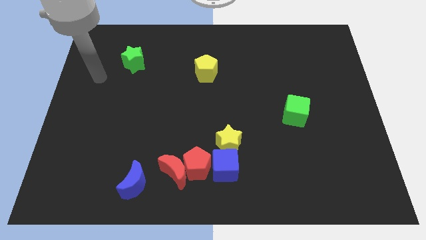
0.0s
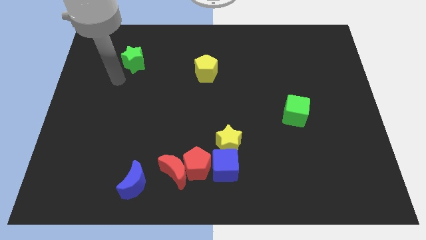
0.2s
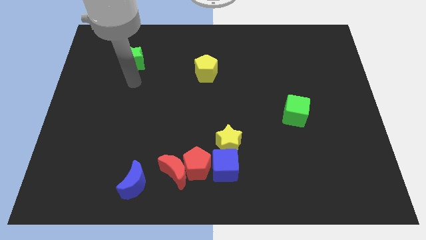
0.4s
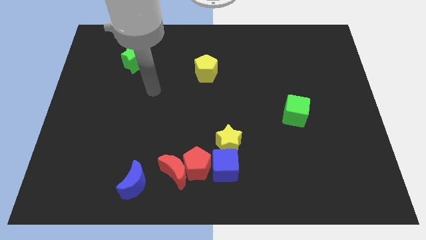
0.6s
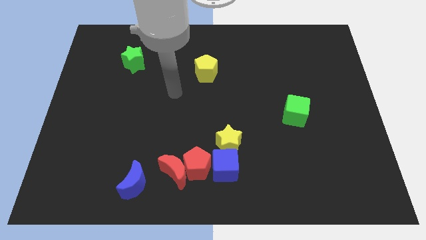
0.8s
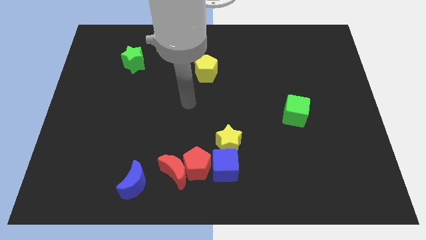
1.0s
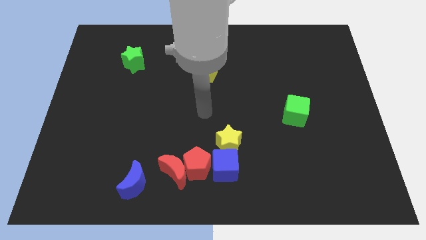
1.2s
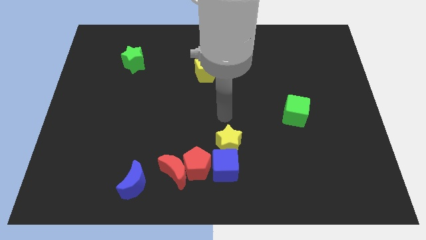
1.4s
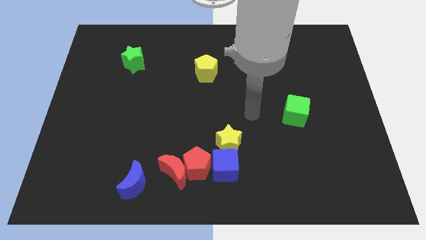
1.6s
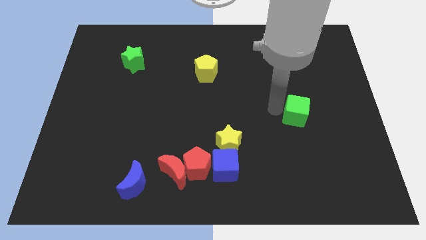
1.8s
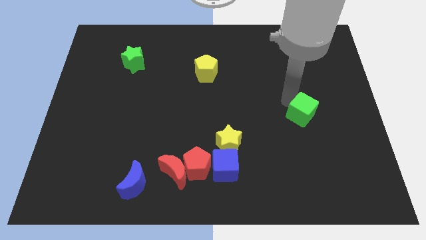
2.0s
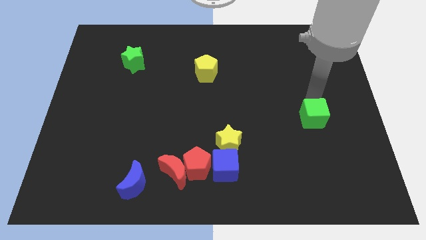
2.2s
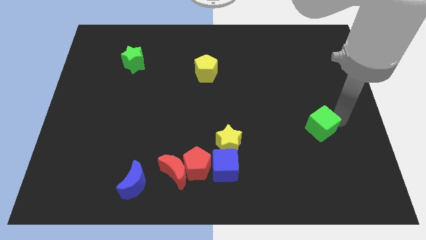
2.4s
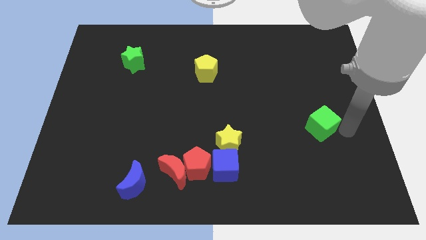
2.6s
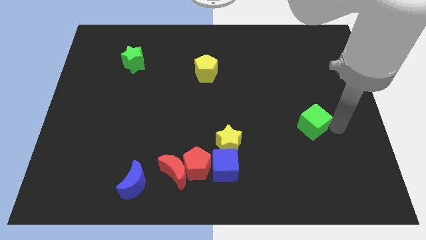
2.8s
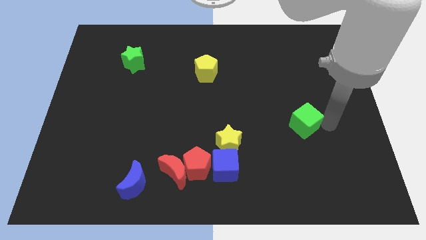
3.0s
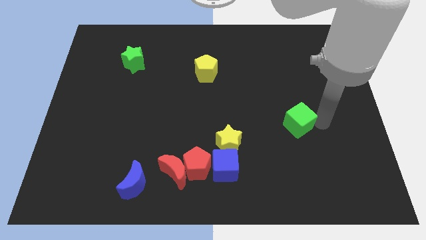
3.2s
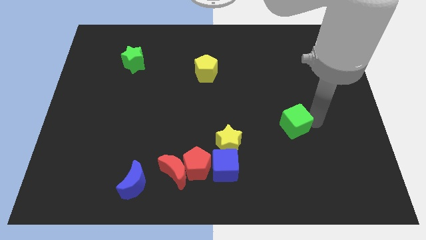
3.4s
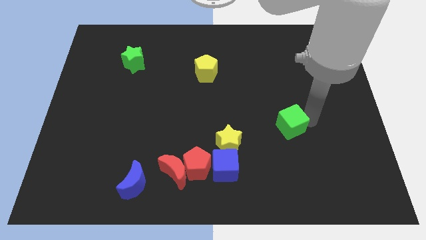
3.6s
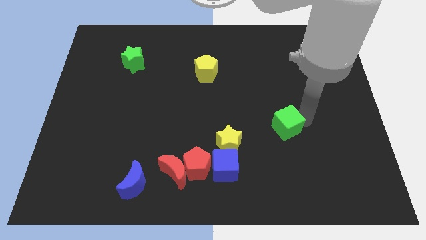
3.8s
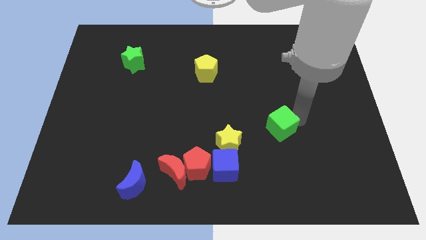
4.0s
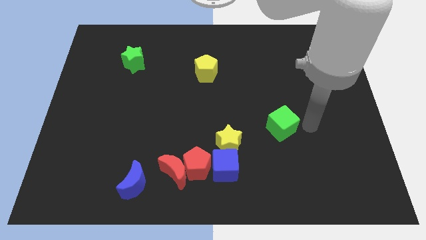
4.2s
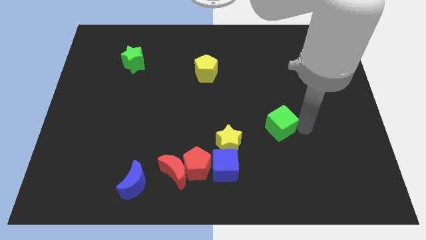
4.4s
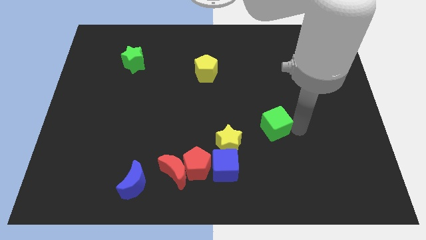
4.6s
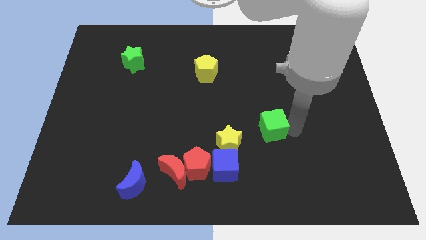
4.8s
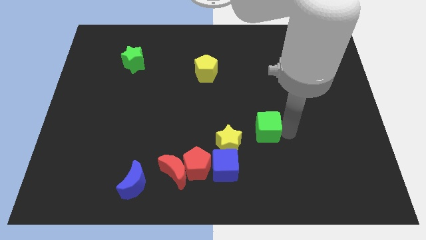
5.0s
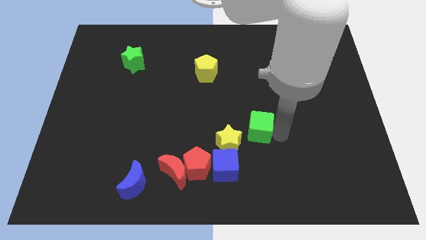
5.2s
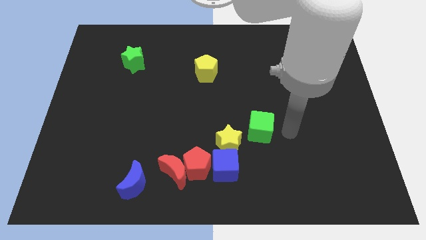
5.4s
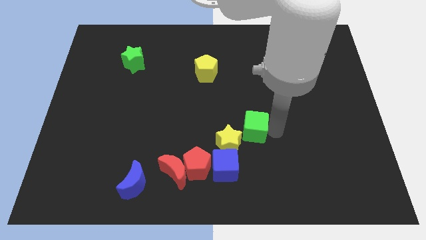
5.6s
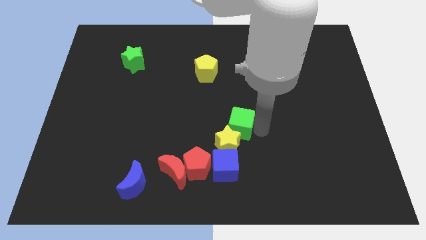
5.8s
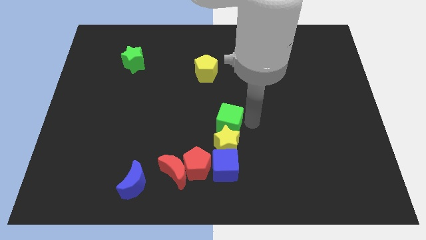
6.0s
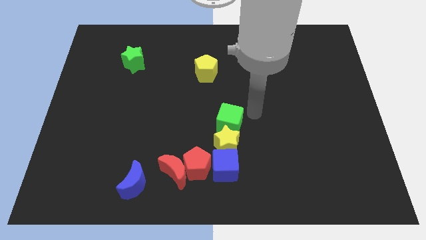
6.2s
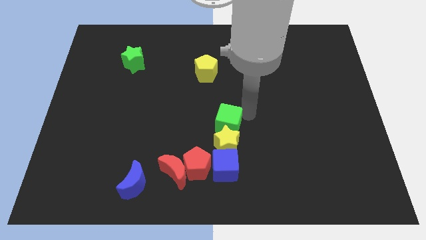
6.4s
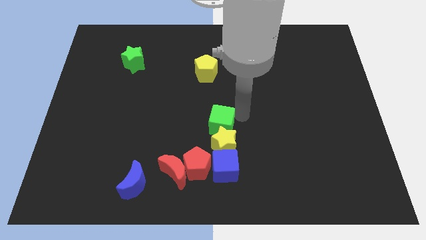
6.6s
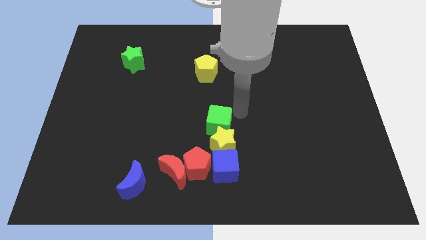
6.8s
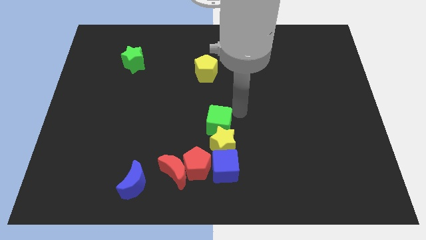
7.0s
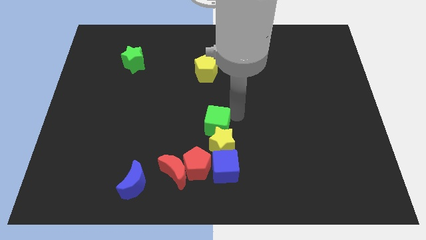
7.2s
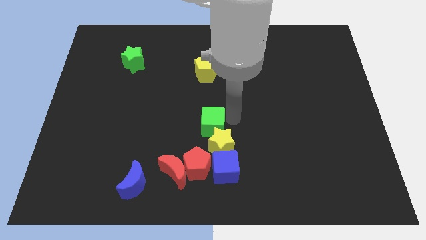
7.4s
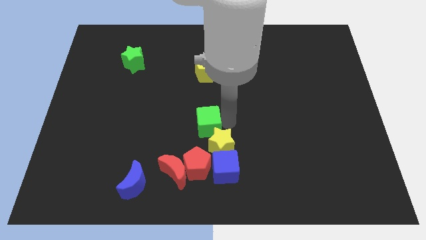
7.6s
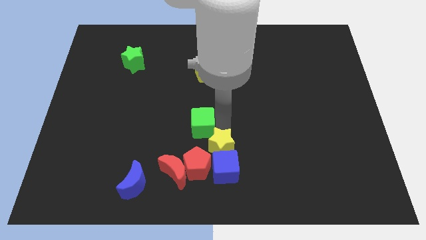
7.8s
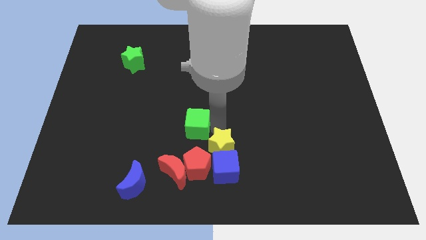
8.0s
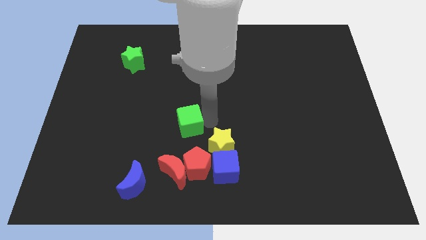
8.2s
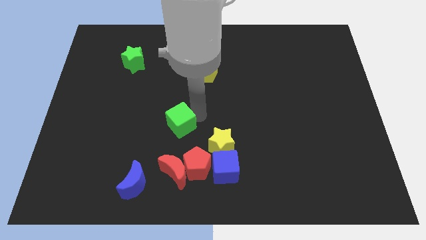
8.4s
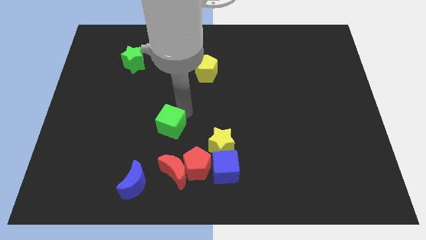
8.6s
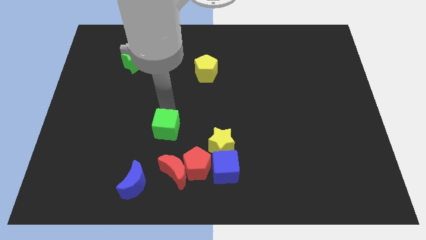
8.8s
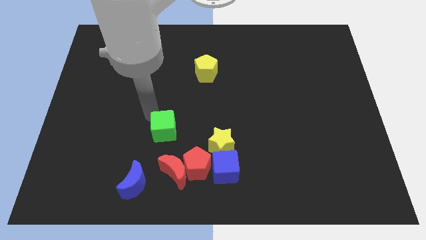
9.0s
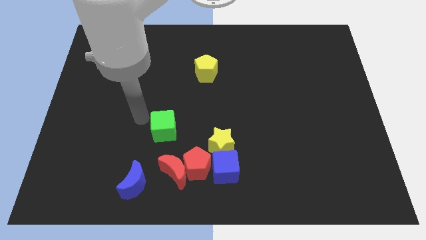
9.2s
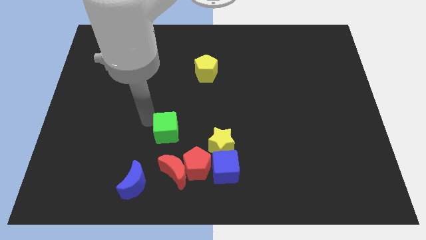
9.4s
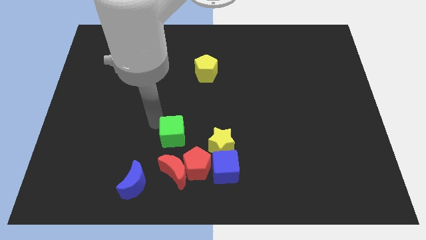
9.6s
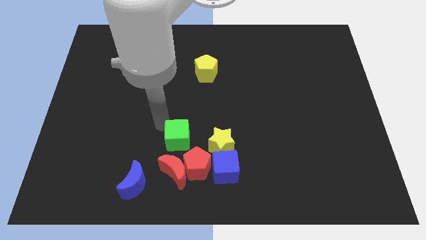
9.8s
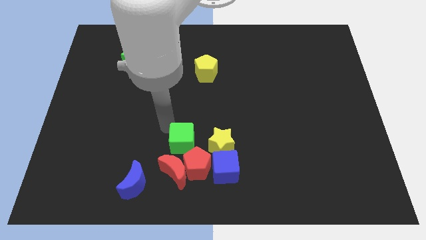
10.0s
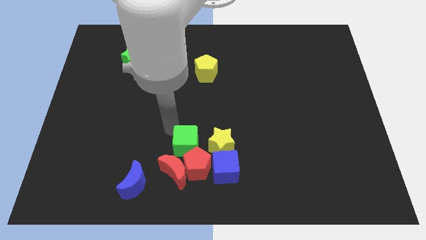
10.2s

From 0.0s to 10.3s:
put the green cube close to the red pentagon

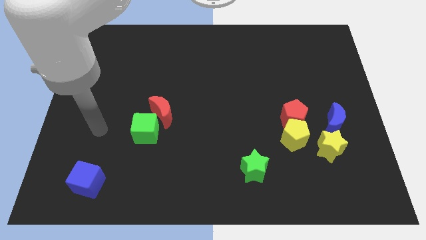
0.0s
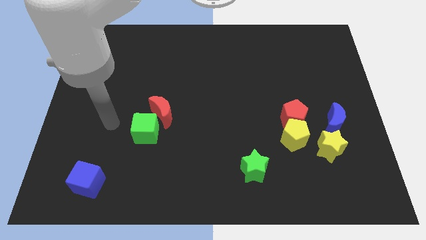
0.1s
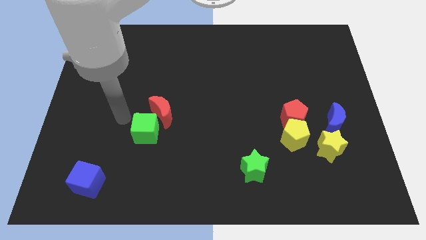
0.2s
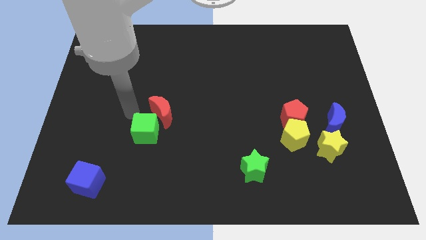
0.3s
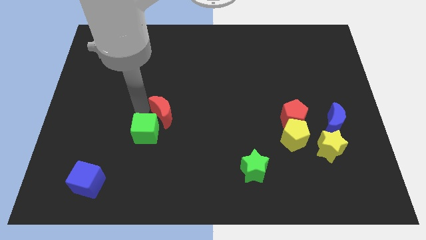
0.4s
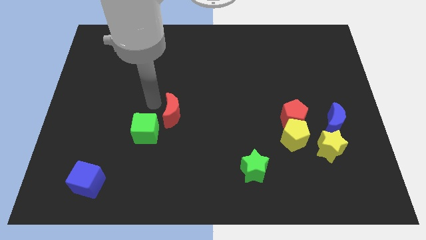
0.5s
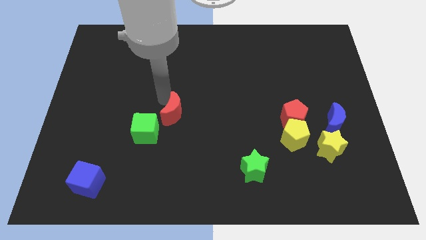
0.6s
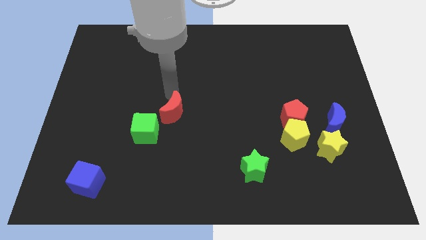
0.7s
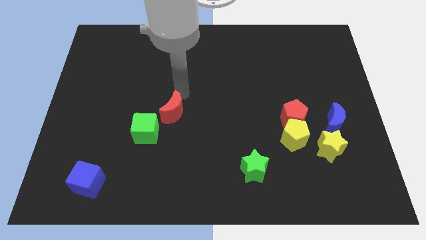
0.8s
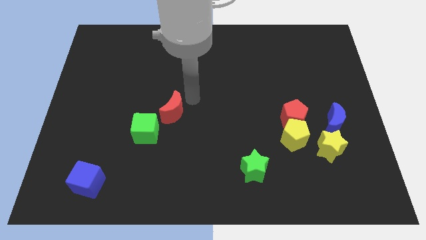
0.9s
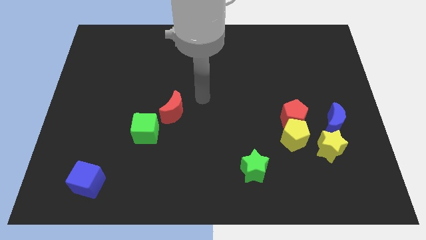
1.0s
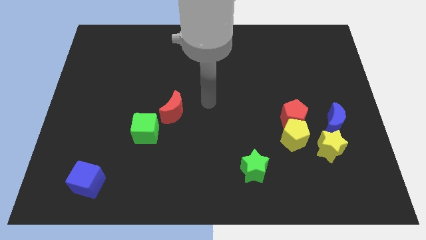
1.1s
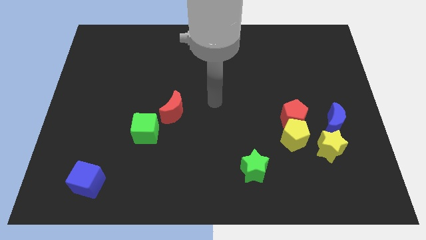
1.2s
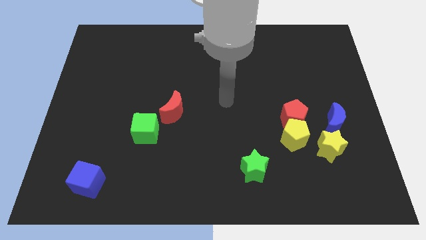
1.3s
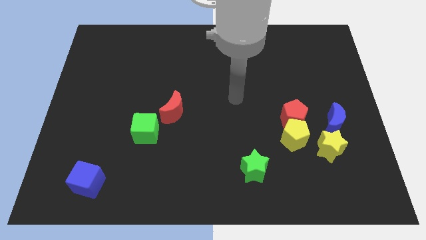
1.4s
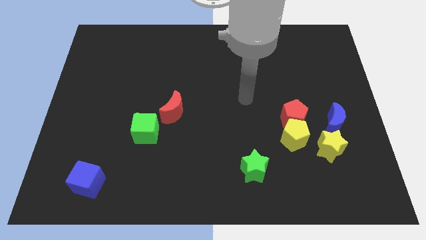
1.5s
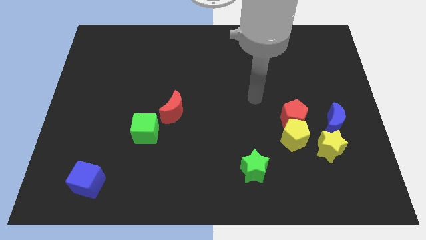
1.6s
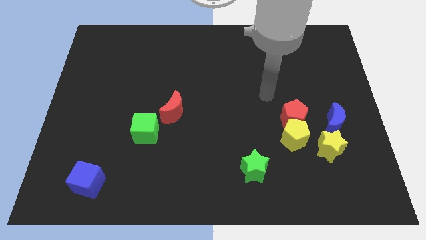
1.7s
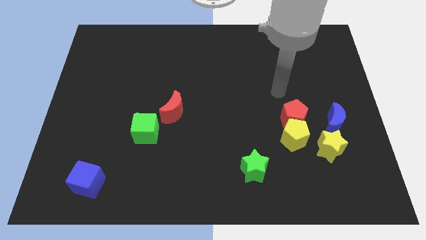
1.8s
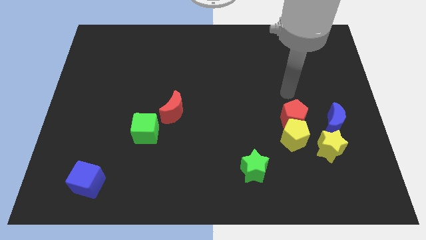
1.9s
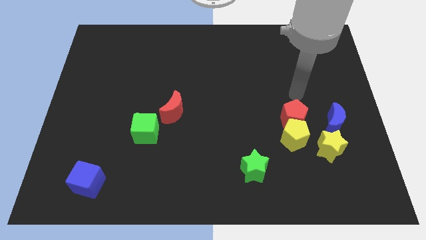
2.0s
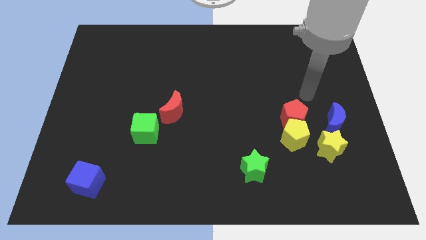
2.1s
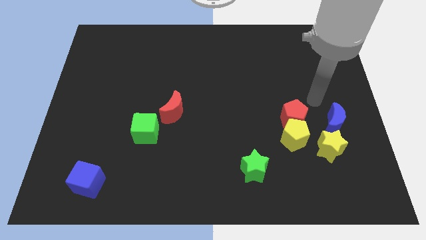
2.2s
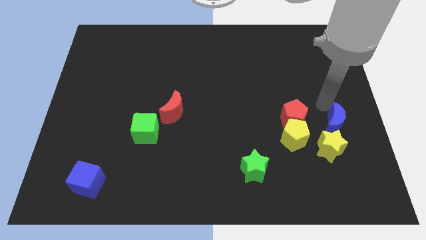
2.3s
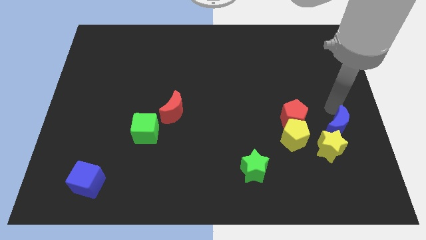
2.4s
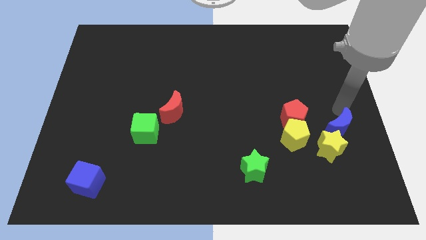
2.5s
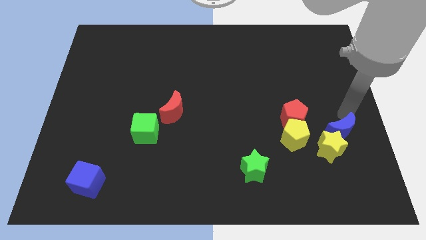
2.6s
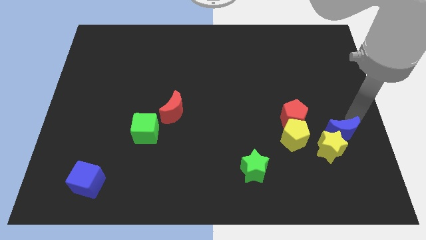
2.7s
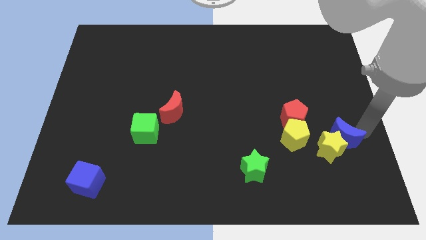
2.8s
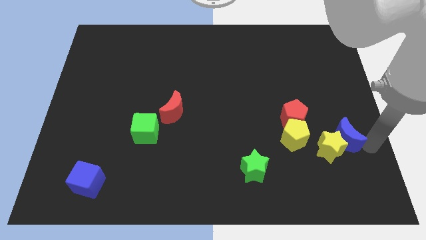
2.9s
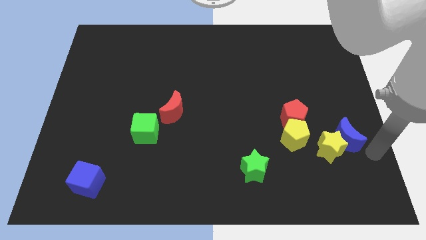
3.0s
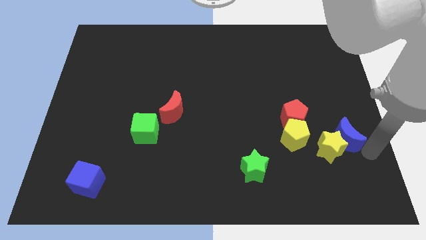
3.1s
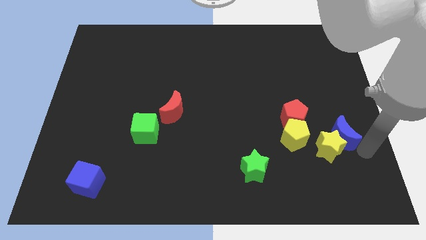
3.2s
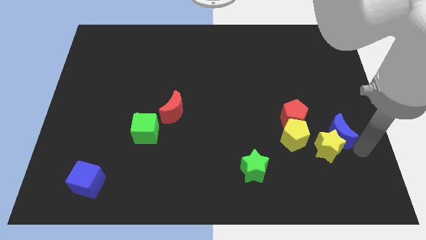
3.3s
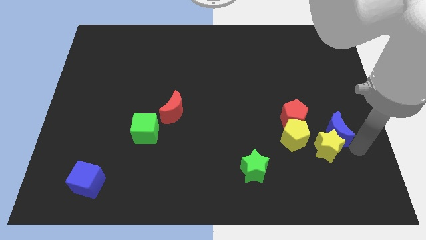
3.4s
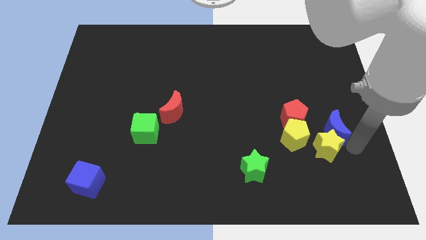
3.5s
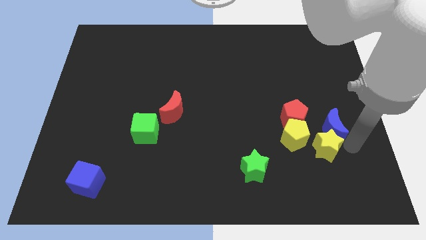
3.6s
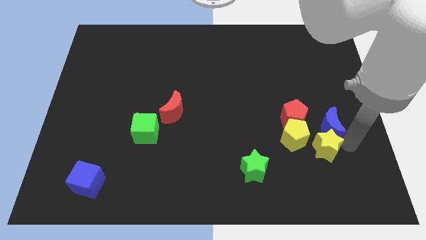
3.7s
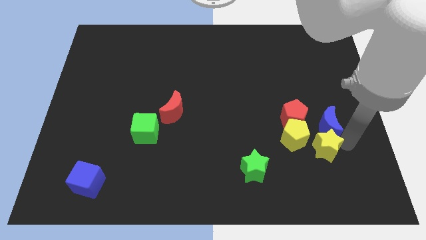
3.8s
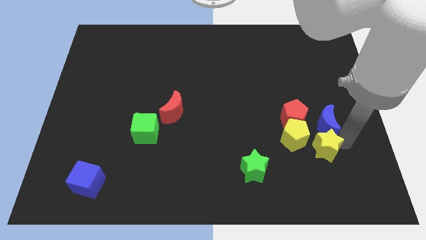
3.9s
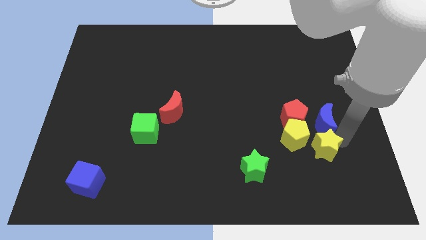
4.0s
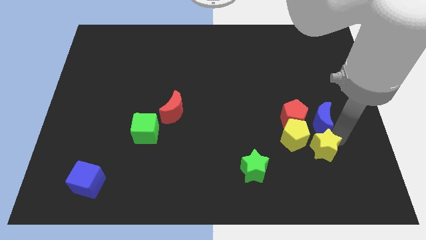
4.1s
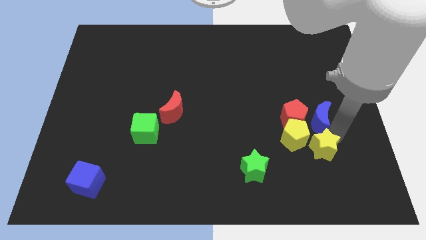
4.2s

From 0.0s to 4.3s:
move the blue moon to the red pentagon
